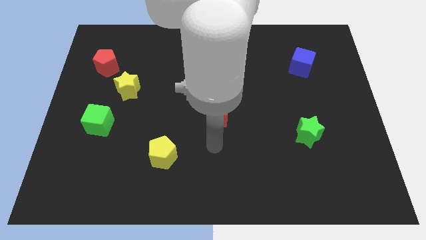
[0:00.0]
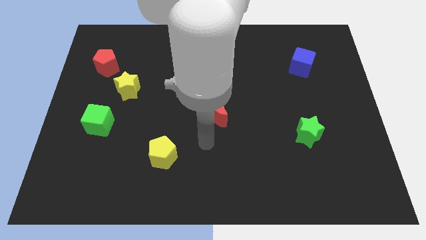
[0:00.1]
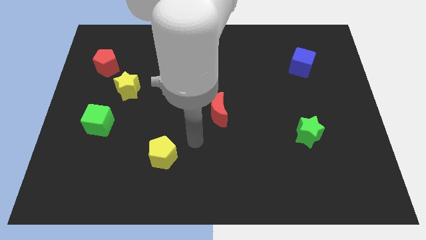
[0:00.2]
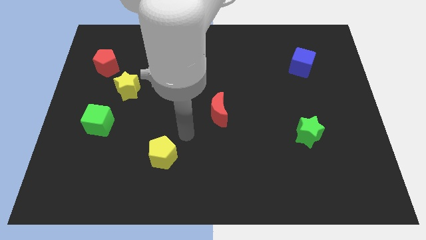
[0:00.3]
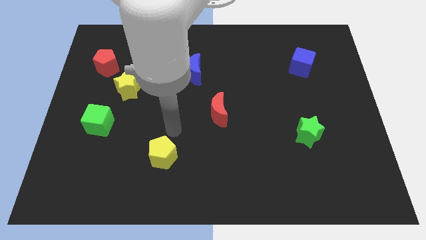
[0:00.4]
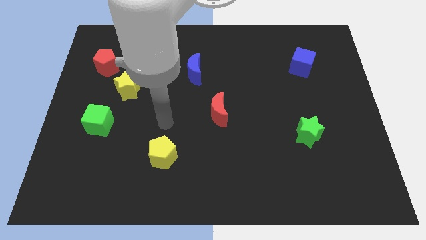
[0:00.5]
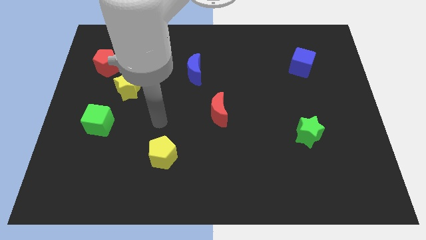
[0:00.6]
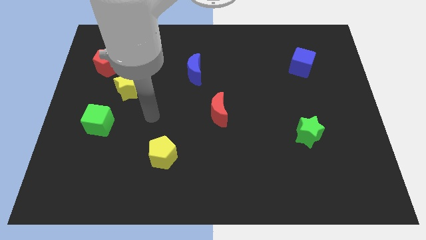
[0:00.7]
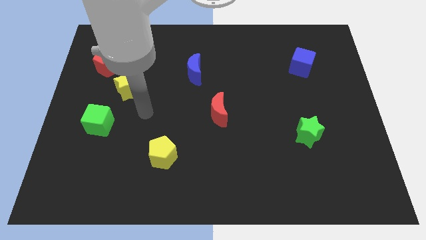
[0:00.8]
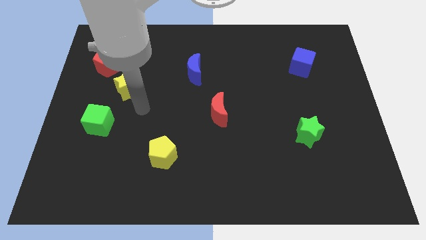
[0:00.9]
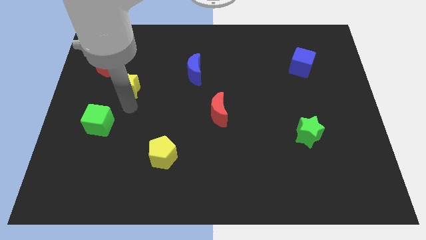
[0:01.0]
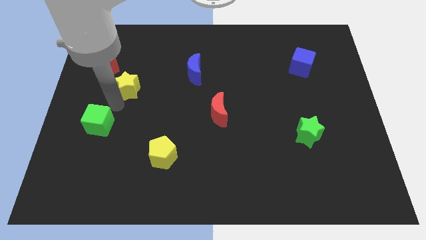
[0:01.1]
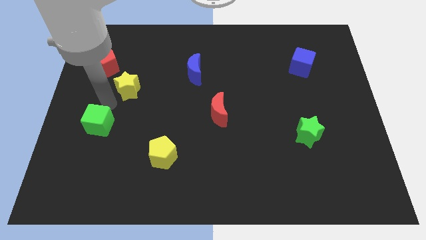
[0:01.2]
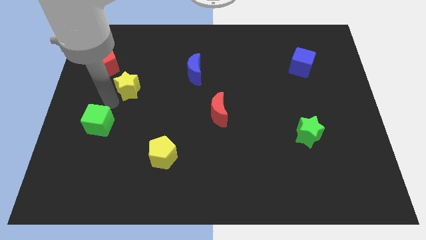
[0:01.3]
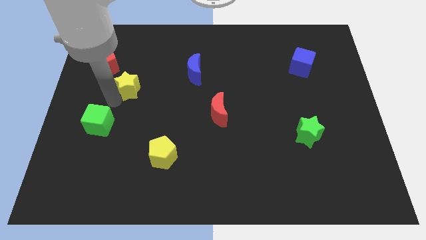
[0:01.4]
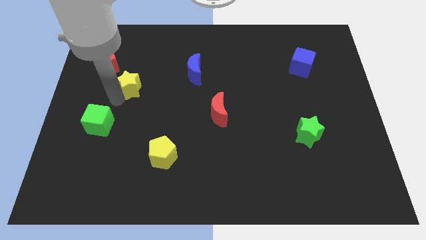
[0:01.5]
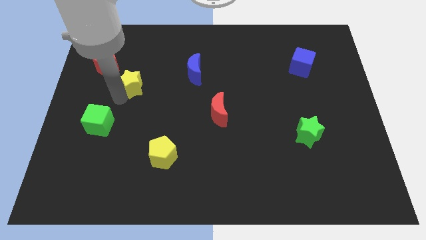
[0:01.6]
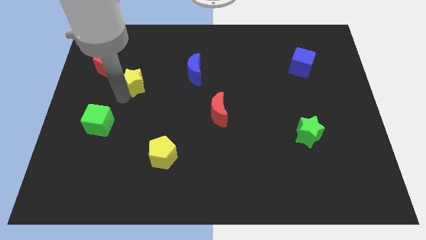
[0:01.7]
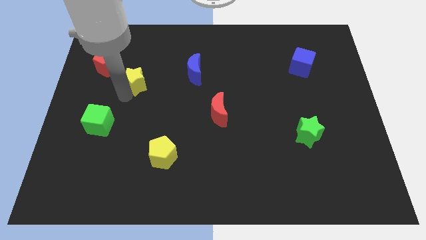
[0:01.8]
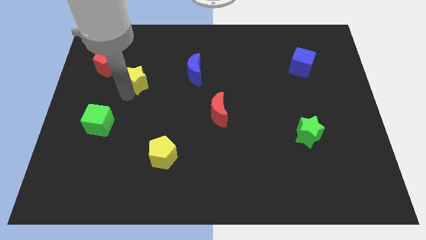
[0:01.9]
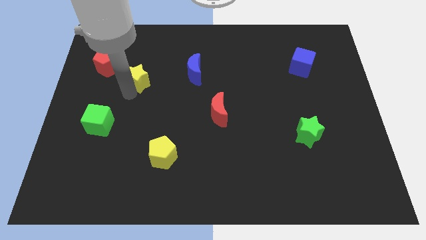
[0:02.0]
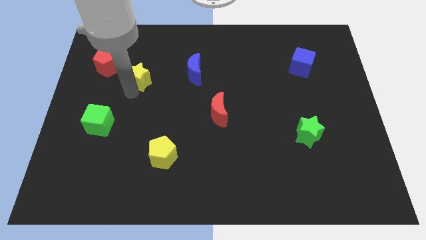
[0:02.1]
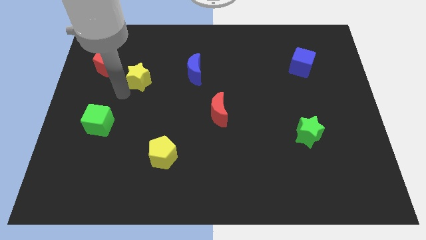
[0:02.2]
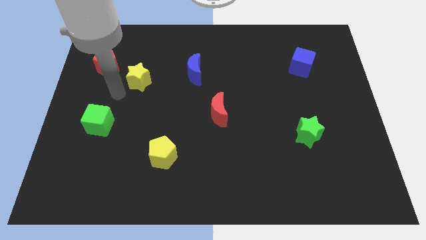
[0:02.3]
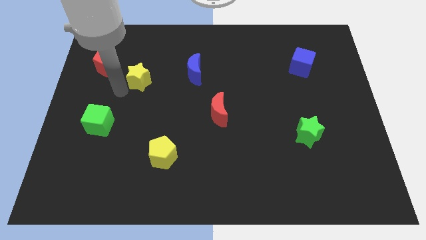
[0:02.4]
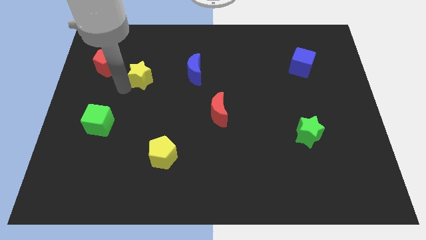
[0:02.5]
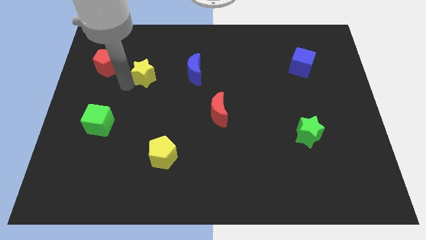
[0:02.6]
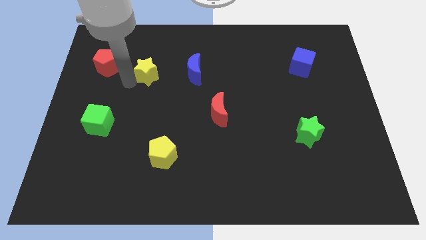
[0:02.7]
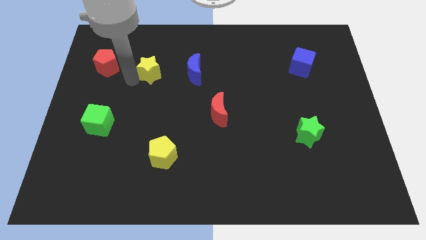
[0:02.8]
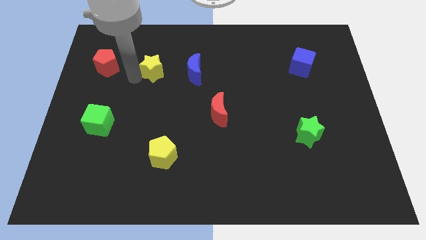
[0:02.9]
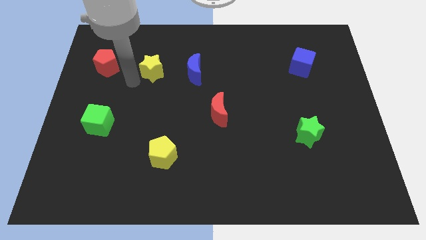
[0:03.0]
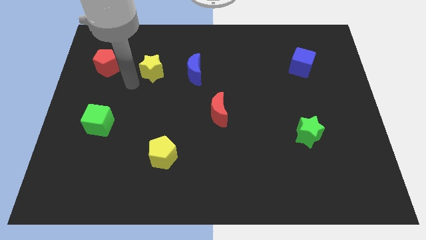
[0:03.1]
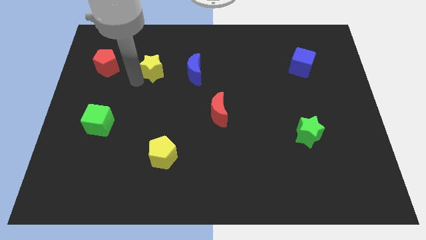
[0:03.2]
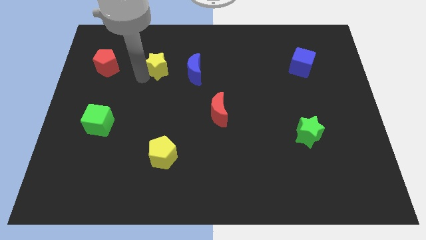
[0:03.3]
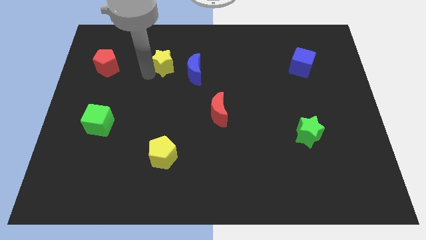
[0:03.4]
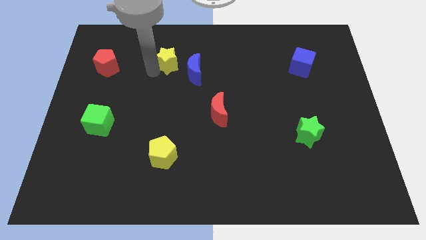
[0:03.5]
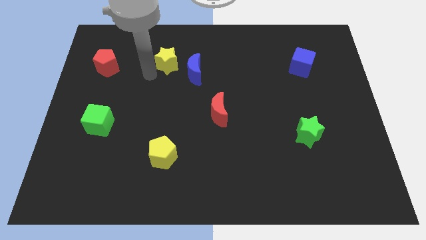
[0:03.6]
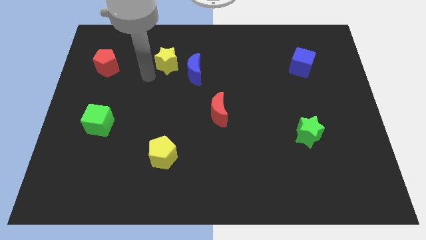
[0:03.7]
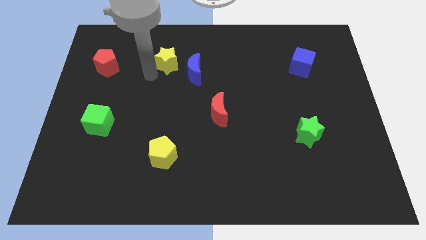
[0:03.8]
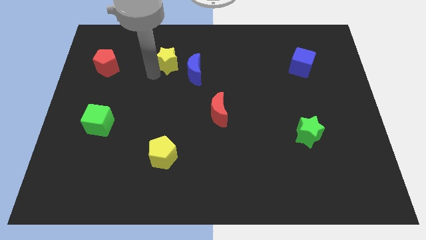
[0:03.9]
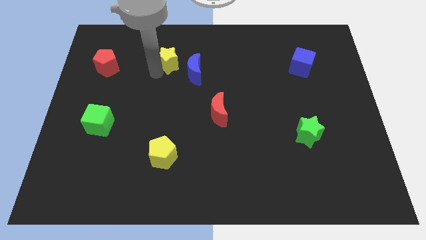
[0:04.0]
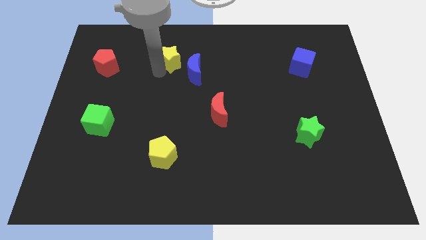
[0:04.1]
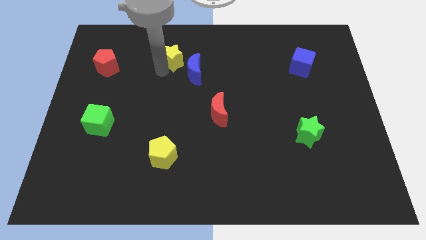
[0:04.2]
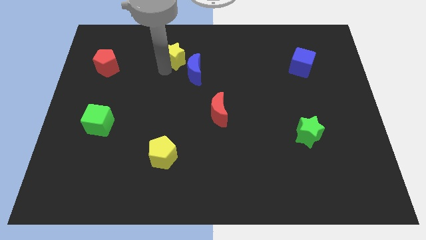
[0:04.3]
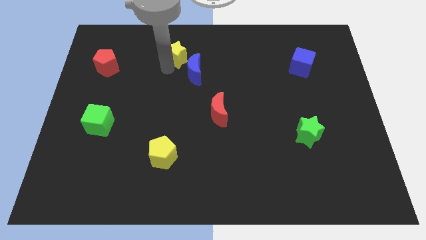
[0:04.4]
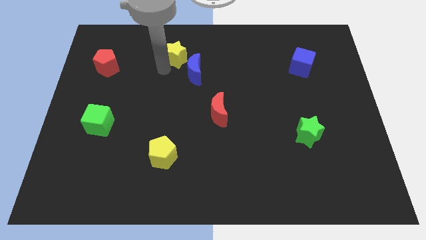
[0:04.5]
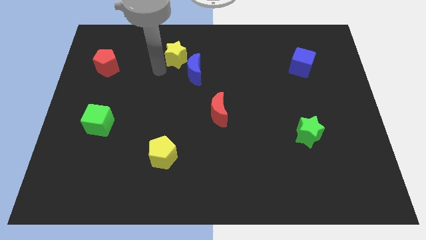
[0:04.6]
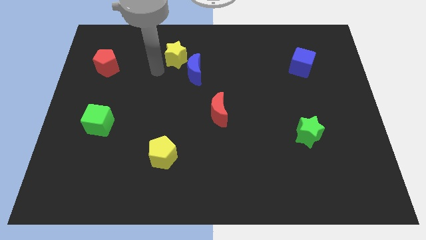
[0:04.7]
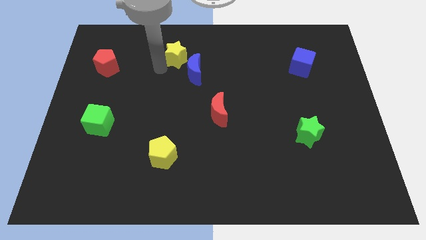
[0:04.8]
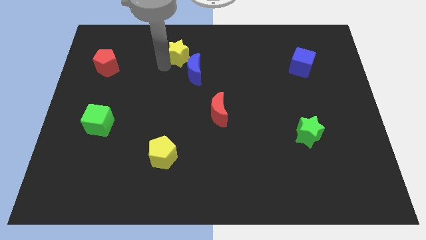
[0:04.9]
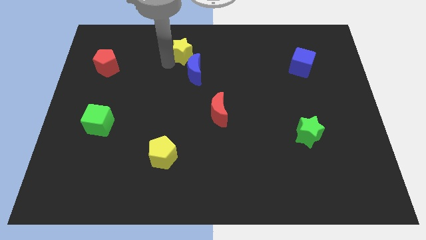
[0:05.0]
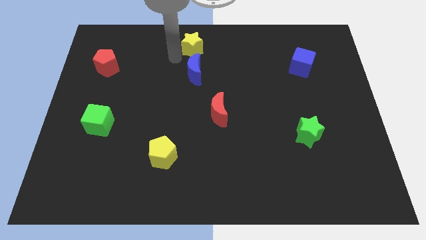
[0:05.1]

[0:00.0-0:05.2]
push the yellow star to the towards your base

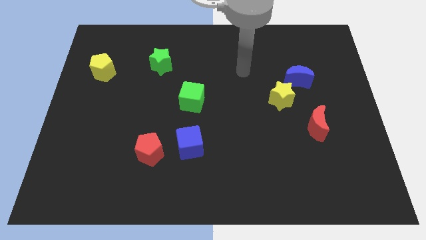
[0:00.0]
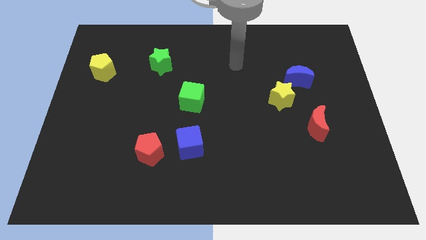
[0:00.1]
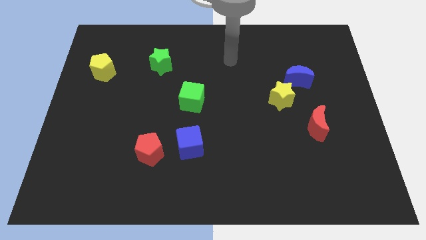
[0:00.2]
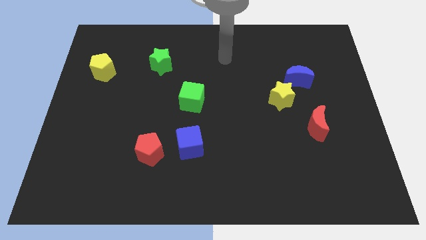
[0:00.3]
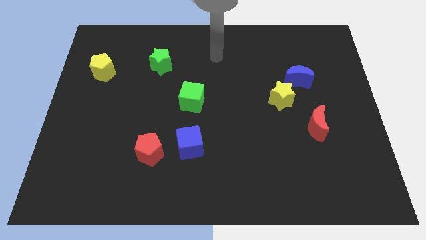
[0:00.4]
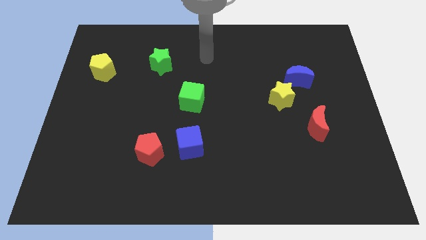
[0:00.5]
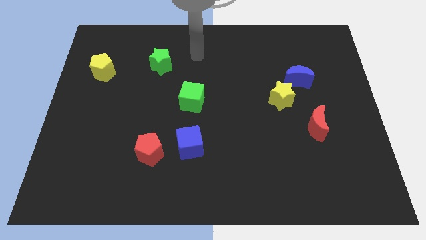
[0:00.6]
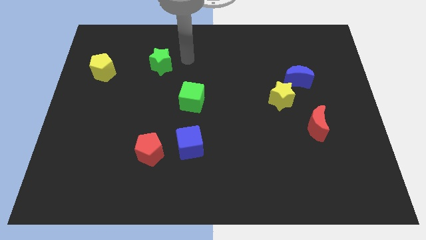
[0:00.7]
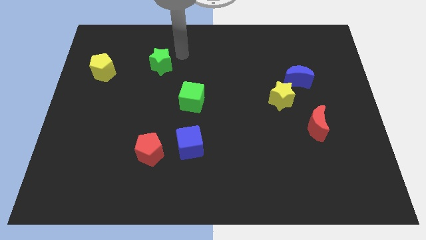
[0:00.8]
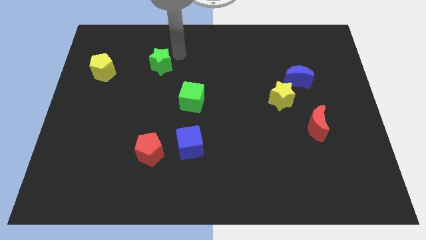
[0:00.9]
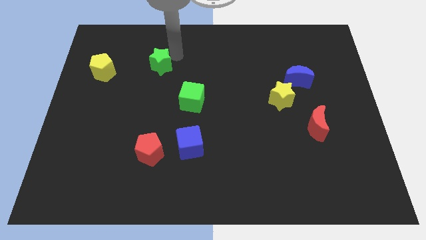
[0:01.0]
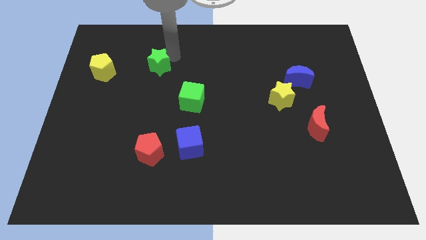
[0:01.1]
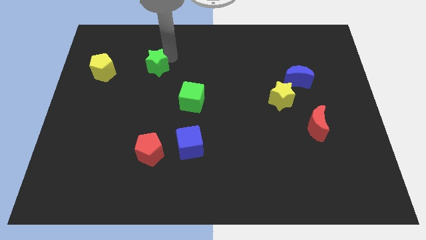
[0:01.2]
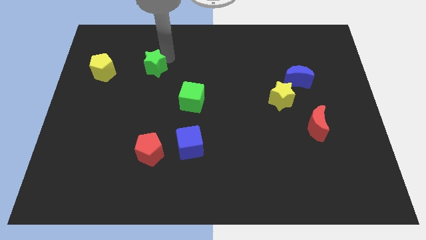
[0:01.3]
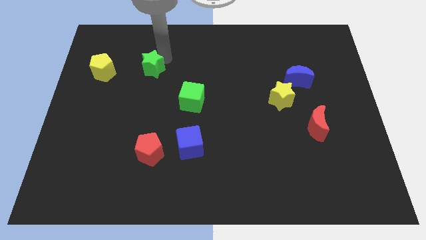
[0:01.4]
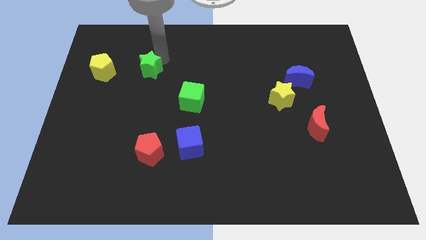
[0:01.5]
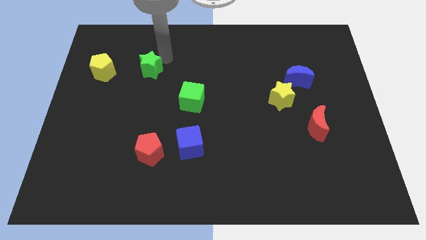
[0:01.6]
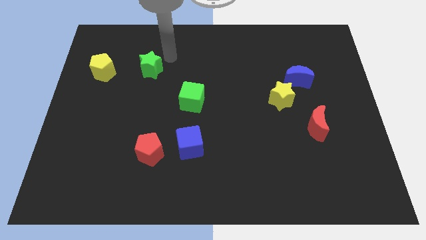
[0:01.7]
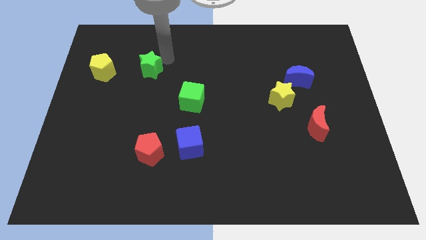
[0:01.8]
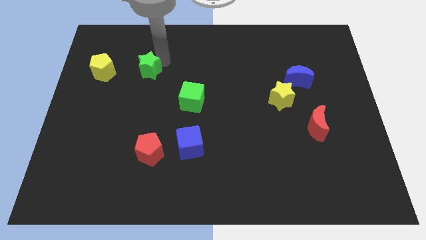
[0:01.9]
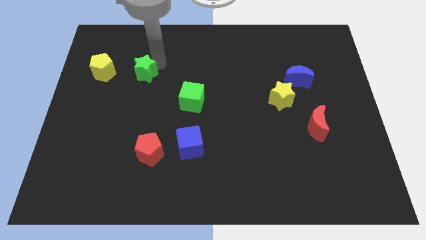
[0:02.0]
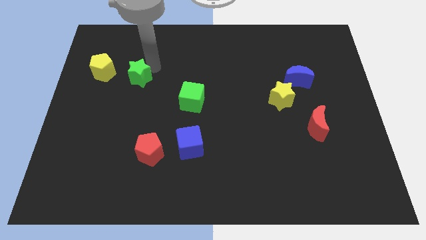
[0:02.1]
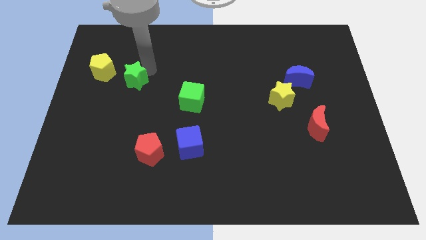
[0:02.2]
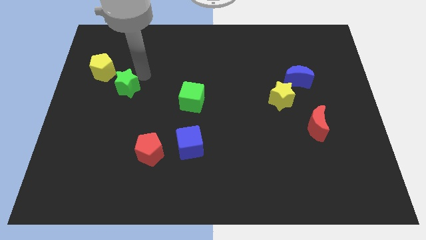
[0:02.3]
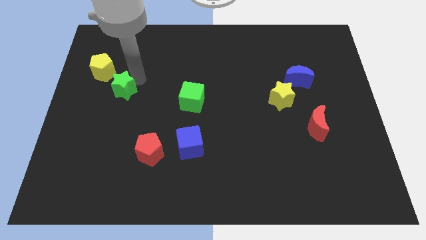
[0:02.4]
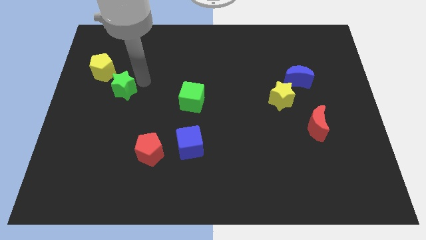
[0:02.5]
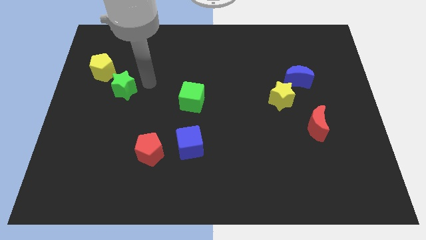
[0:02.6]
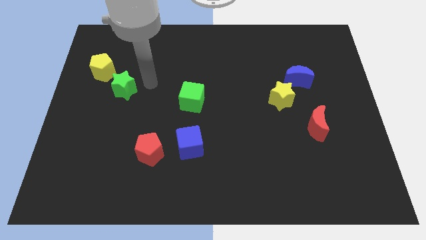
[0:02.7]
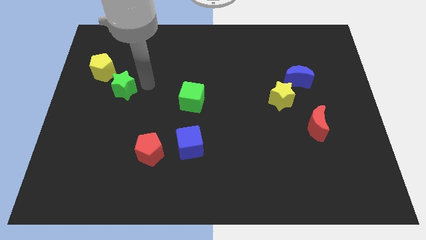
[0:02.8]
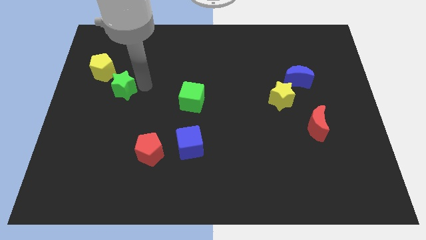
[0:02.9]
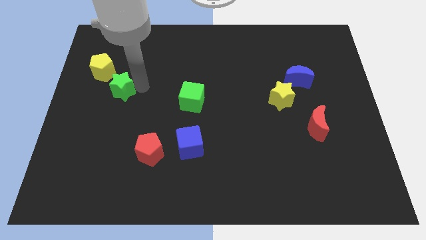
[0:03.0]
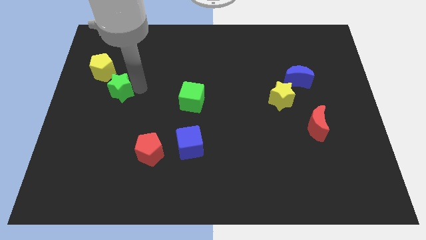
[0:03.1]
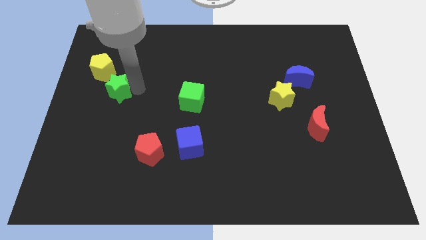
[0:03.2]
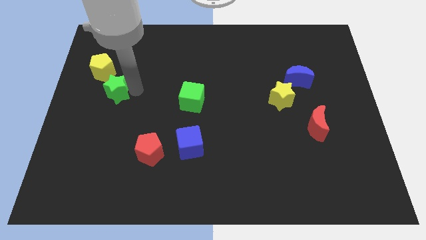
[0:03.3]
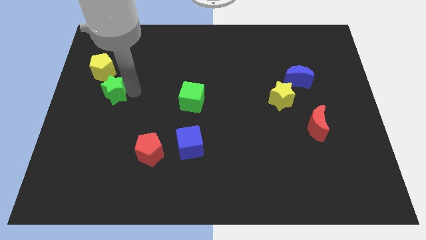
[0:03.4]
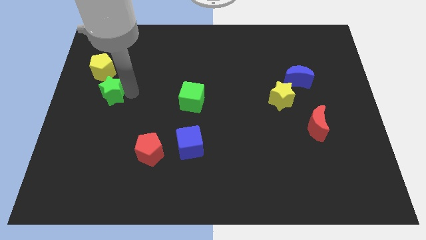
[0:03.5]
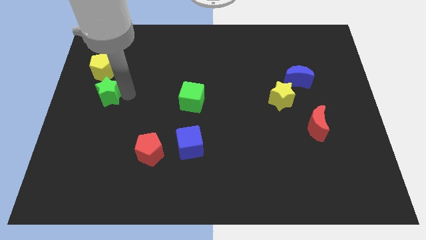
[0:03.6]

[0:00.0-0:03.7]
put the green star to the center left
